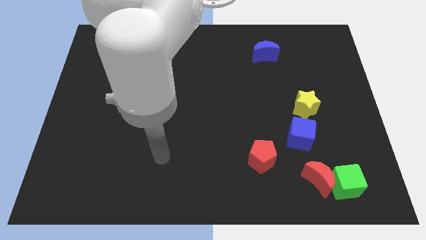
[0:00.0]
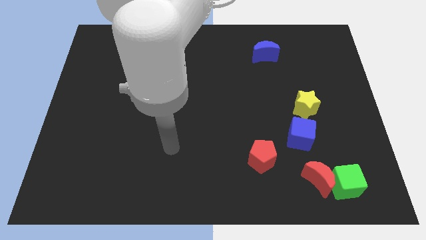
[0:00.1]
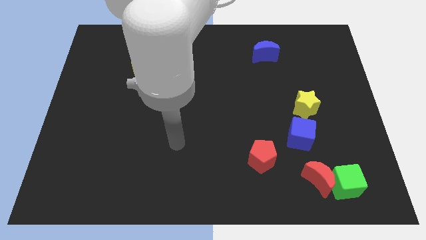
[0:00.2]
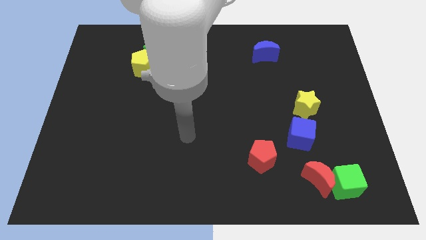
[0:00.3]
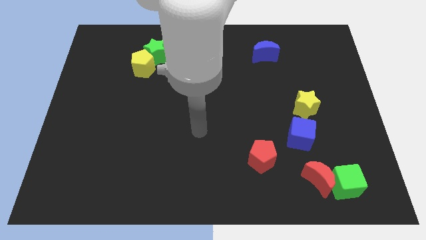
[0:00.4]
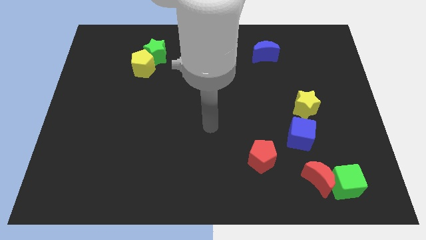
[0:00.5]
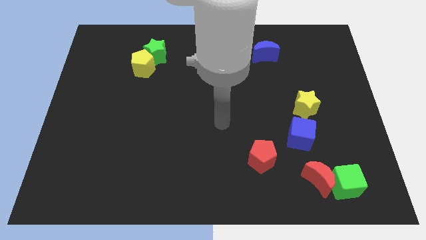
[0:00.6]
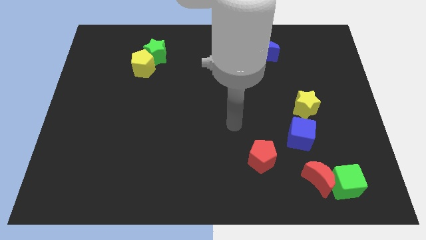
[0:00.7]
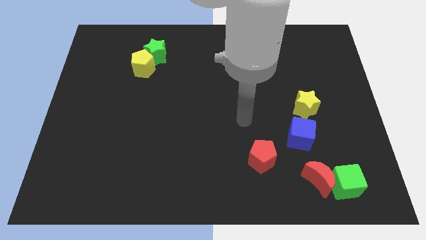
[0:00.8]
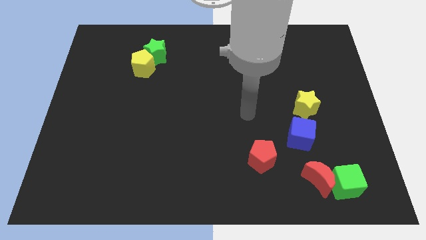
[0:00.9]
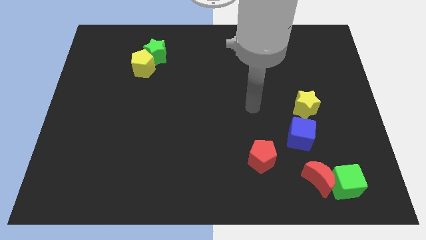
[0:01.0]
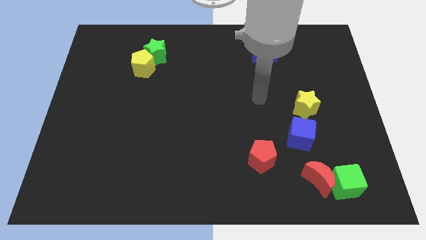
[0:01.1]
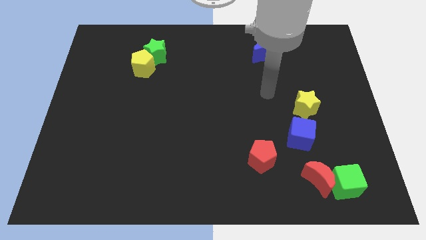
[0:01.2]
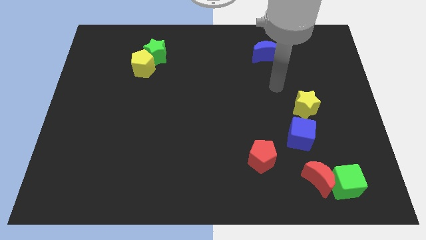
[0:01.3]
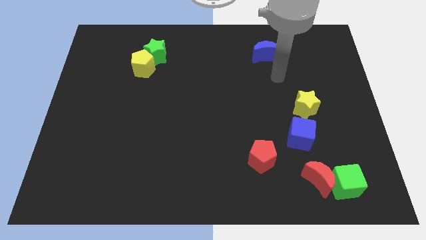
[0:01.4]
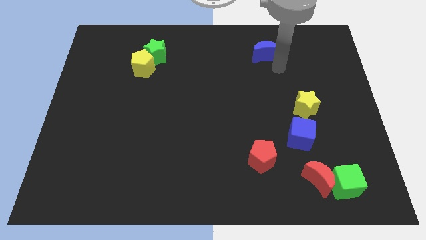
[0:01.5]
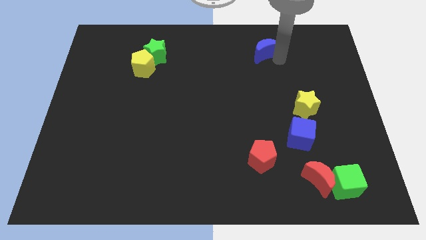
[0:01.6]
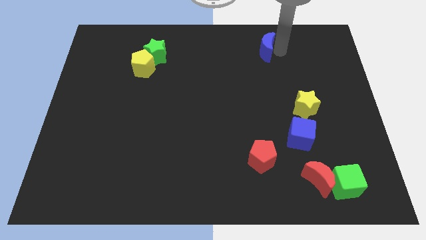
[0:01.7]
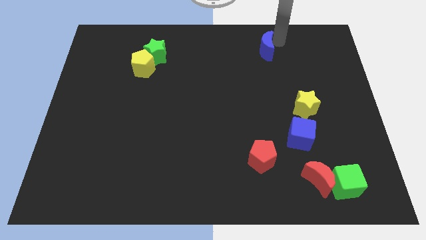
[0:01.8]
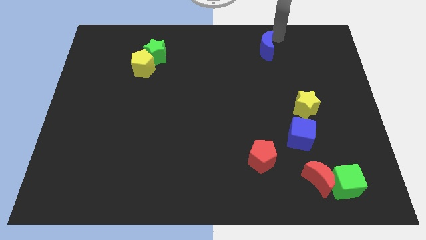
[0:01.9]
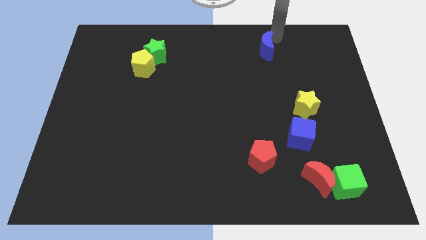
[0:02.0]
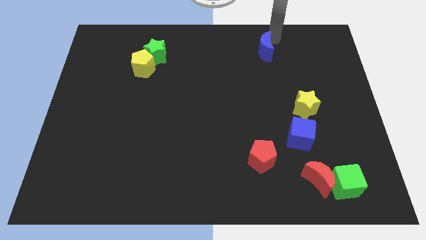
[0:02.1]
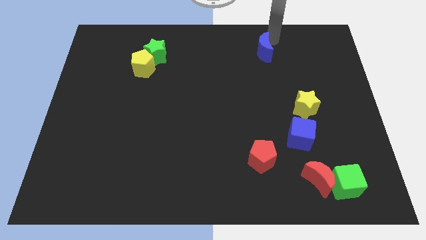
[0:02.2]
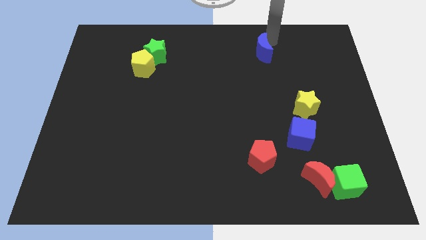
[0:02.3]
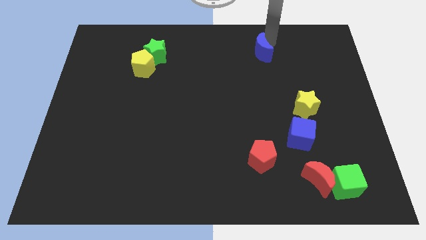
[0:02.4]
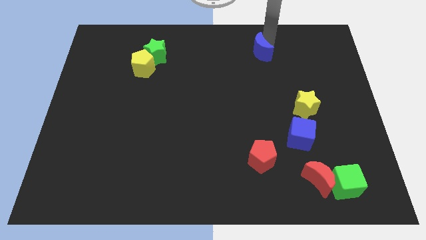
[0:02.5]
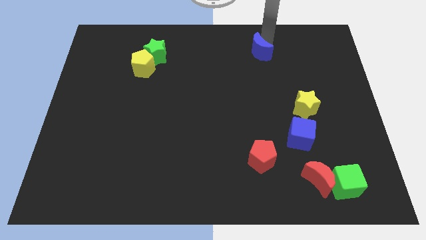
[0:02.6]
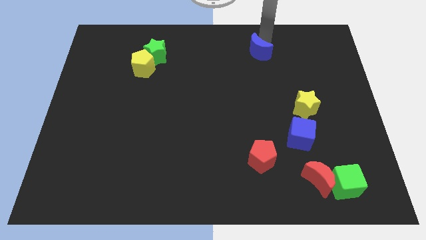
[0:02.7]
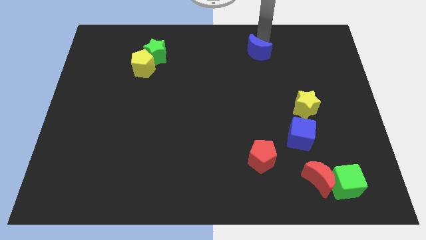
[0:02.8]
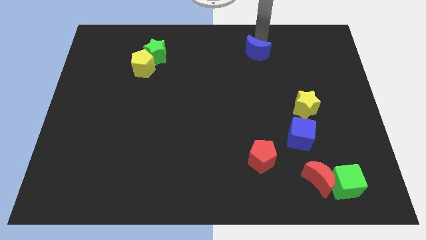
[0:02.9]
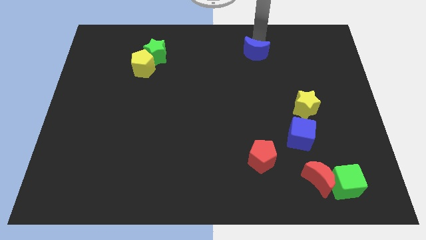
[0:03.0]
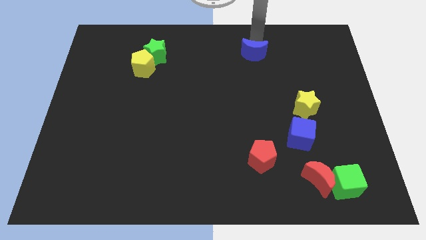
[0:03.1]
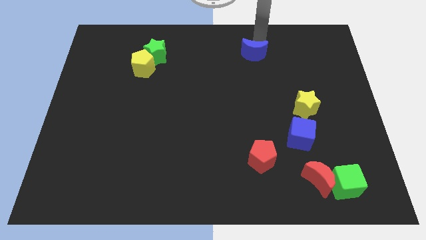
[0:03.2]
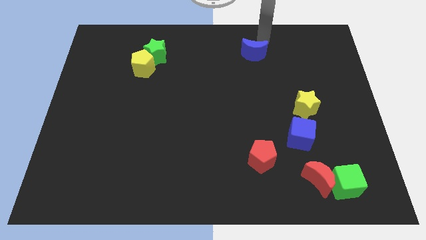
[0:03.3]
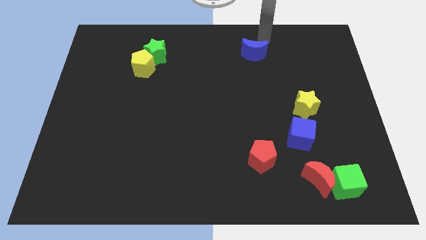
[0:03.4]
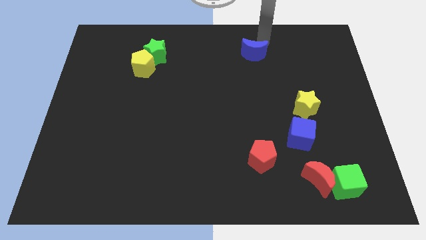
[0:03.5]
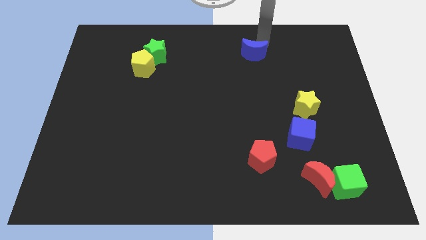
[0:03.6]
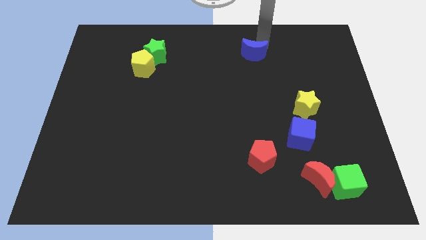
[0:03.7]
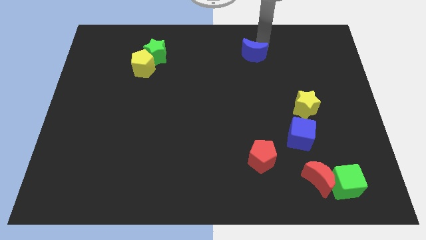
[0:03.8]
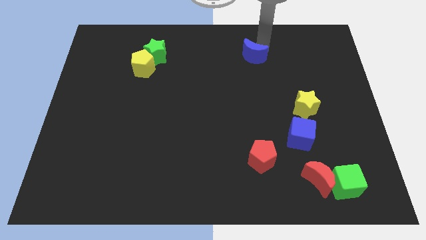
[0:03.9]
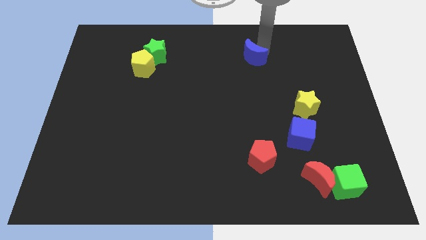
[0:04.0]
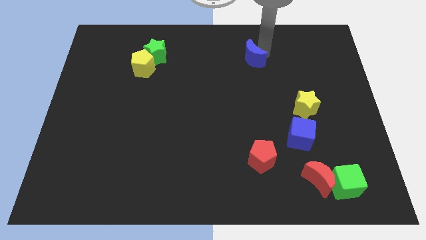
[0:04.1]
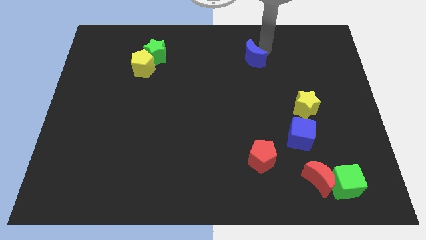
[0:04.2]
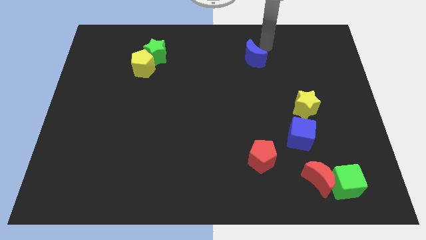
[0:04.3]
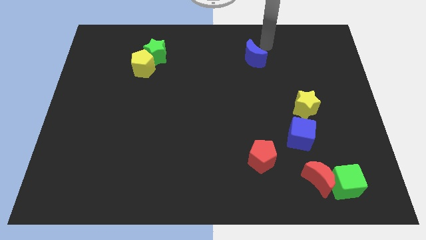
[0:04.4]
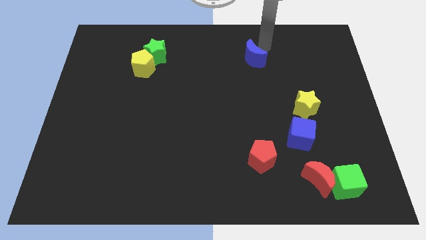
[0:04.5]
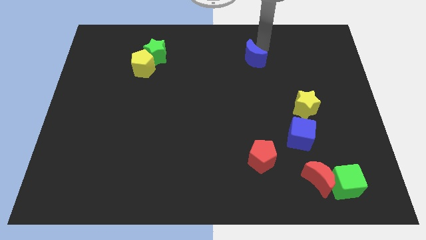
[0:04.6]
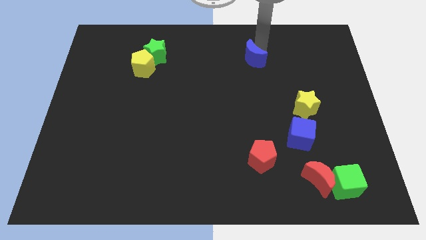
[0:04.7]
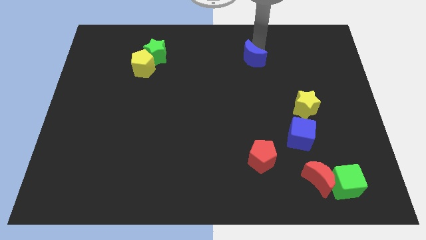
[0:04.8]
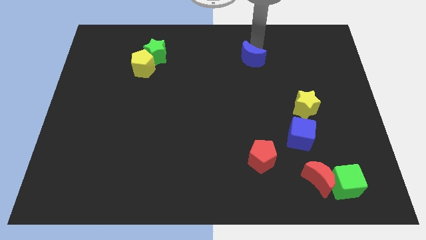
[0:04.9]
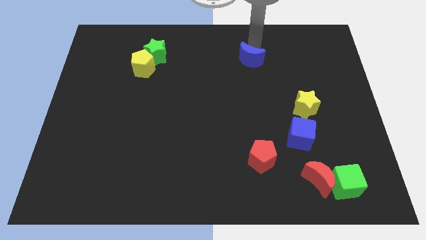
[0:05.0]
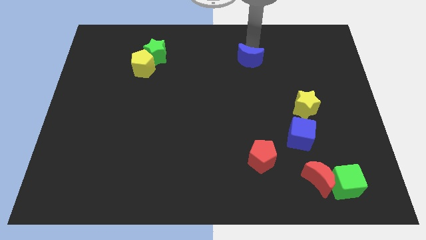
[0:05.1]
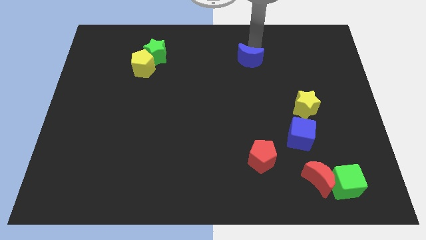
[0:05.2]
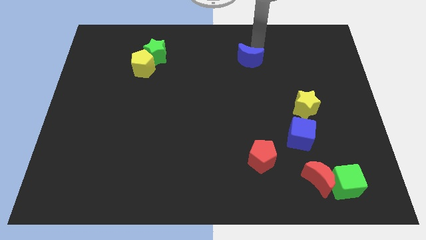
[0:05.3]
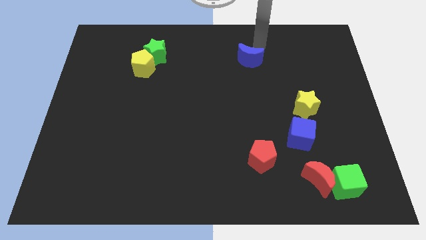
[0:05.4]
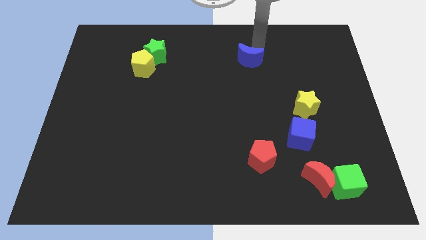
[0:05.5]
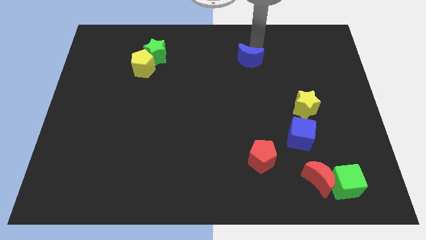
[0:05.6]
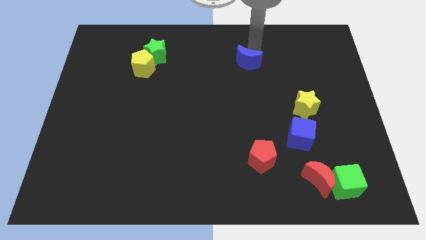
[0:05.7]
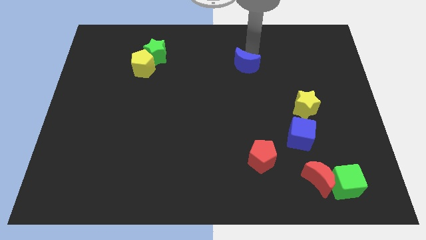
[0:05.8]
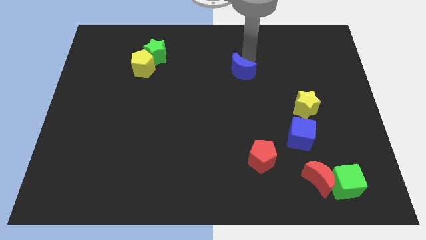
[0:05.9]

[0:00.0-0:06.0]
slightly move the blue moon down and then left

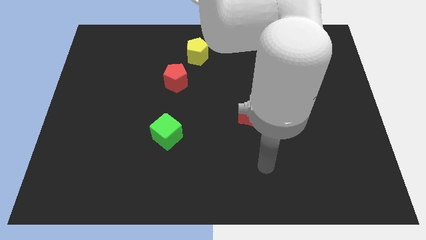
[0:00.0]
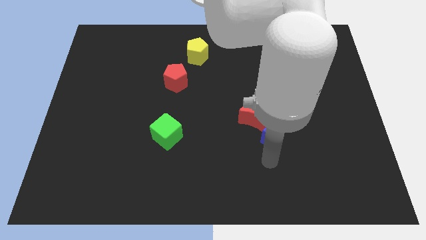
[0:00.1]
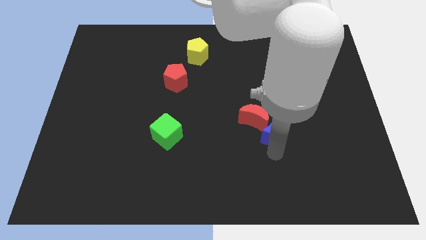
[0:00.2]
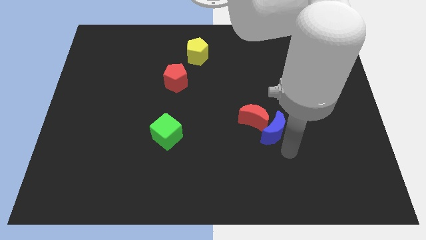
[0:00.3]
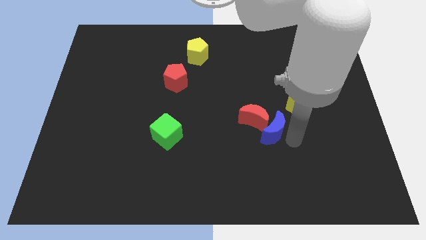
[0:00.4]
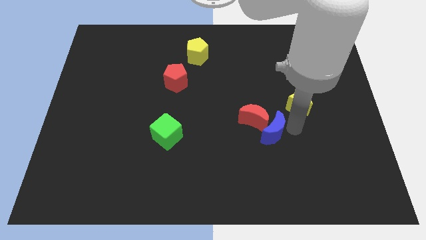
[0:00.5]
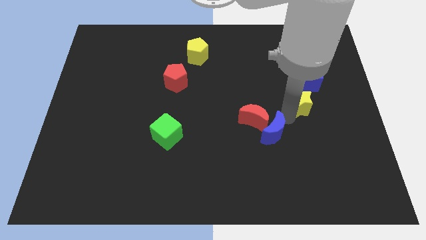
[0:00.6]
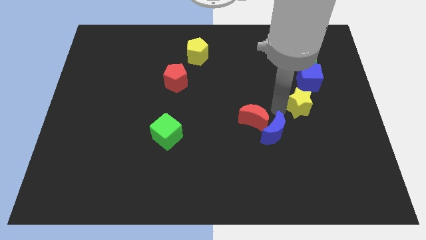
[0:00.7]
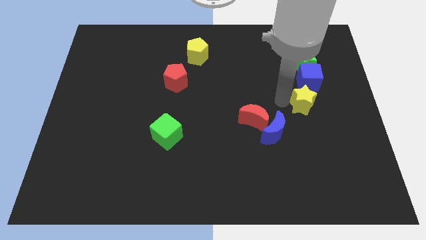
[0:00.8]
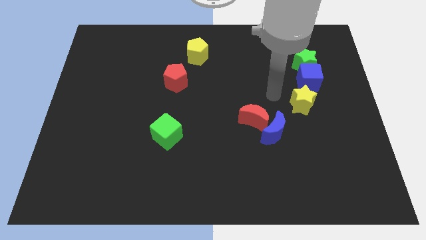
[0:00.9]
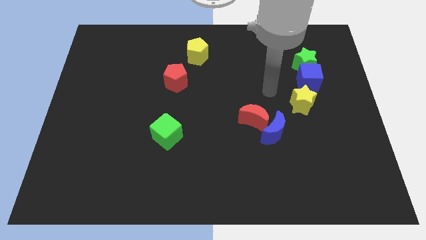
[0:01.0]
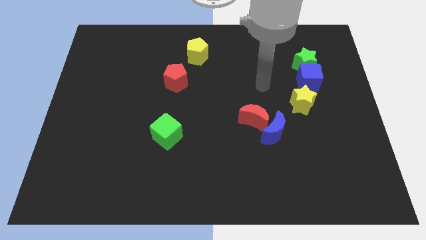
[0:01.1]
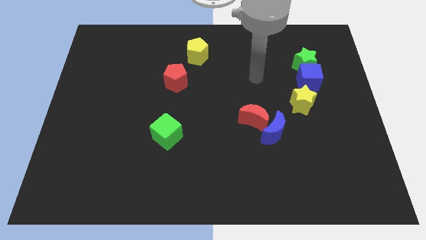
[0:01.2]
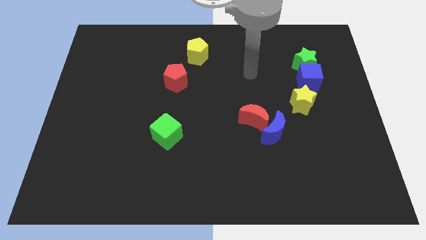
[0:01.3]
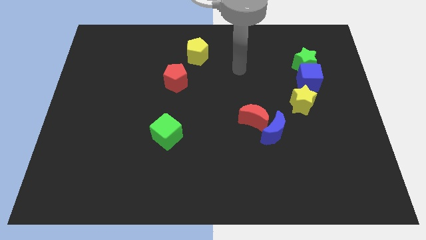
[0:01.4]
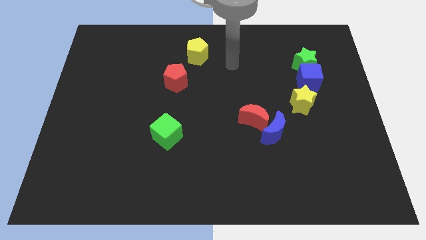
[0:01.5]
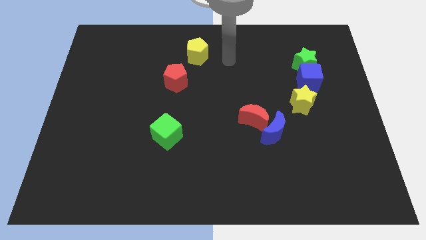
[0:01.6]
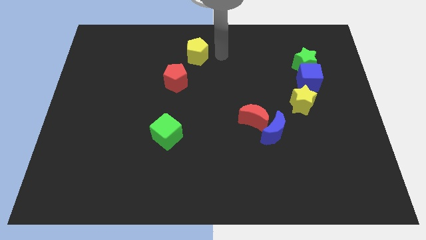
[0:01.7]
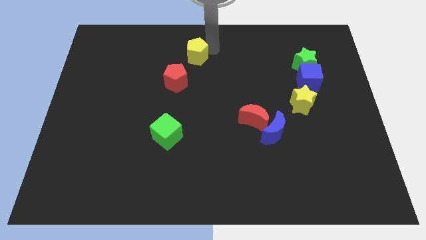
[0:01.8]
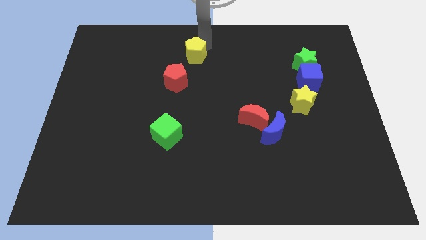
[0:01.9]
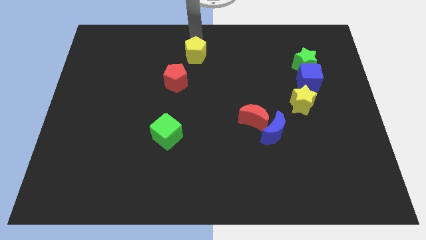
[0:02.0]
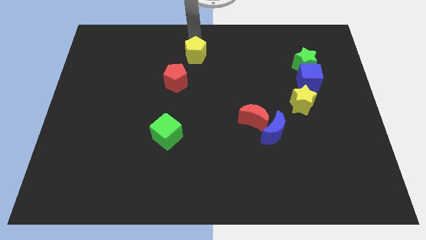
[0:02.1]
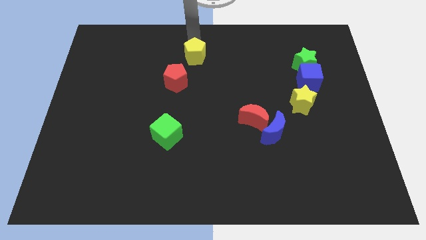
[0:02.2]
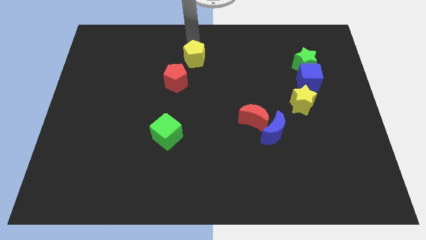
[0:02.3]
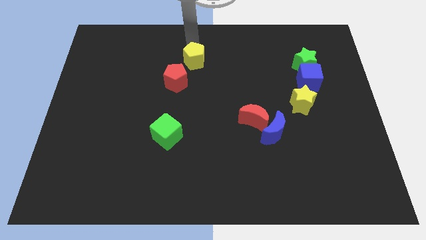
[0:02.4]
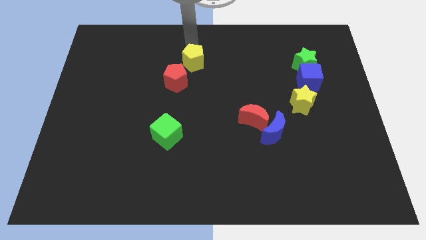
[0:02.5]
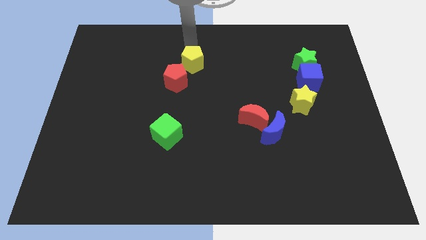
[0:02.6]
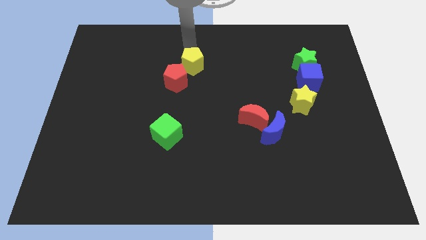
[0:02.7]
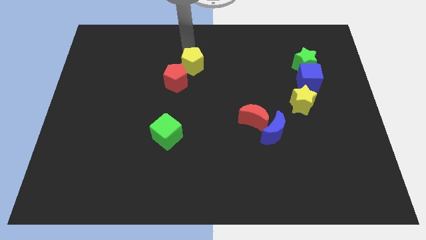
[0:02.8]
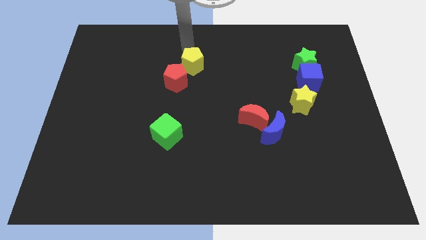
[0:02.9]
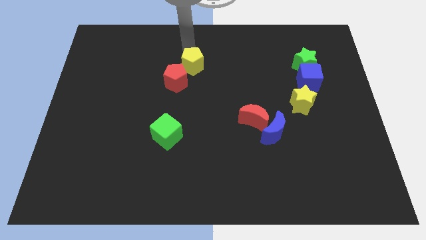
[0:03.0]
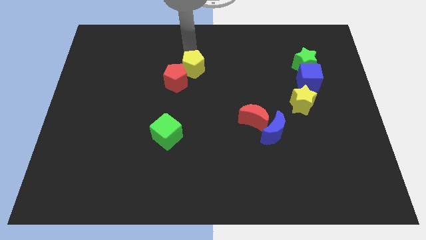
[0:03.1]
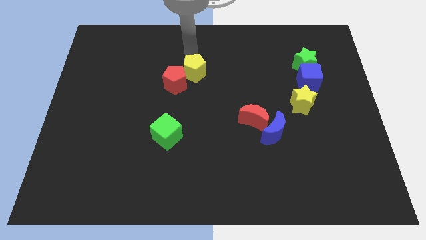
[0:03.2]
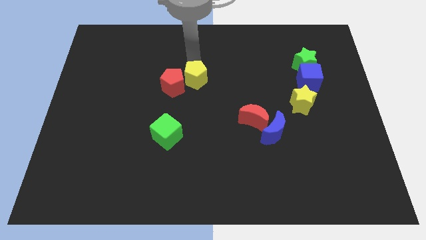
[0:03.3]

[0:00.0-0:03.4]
slide the yellow pentagon a little bit downwards
